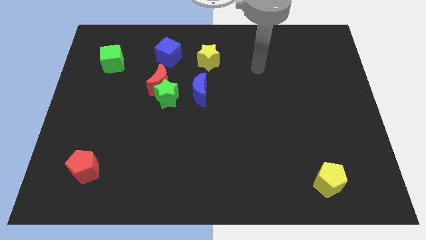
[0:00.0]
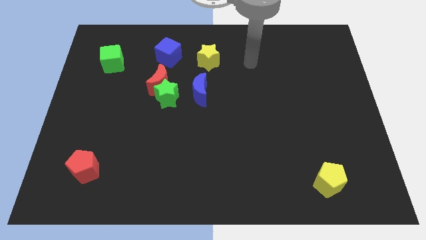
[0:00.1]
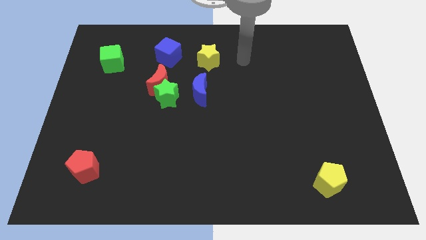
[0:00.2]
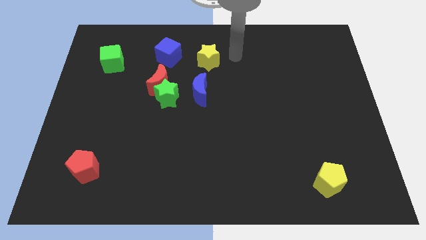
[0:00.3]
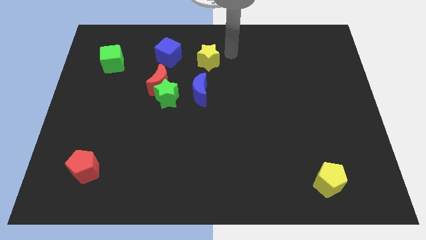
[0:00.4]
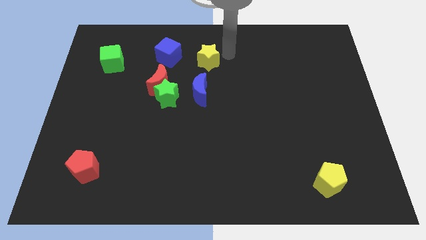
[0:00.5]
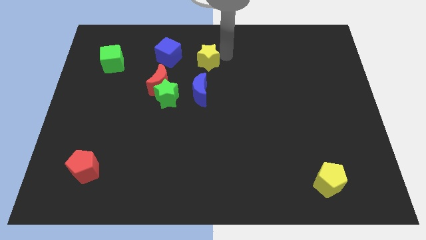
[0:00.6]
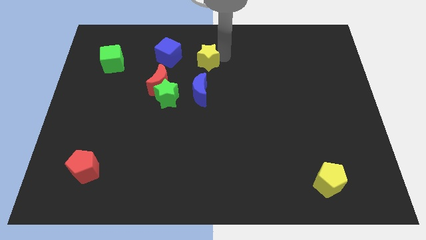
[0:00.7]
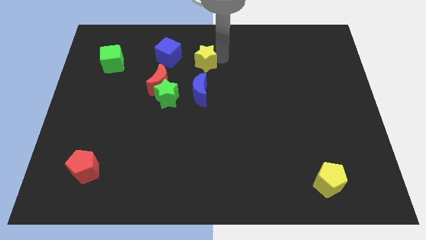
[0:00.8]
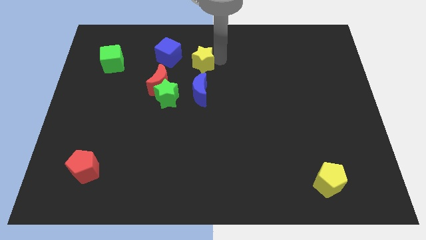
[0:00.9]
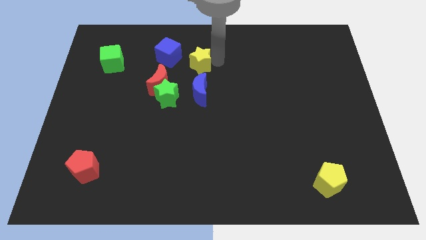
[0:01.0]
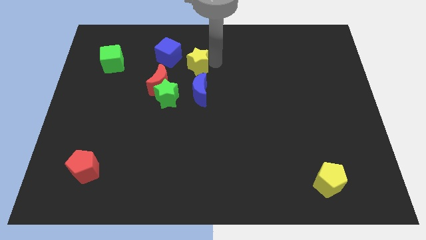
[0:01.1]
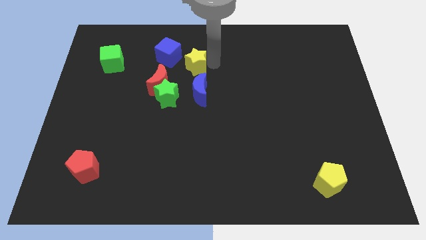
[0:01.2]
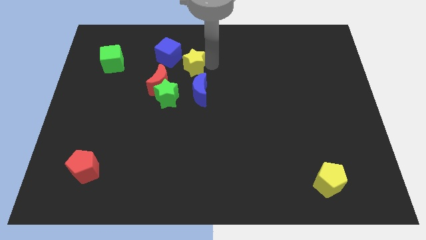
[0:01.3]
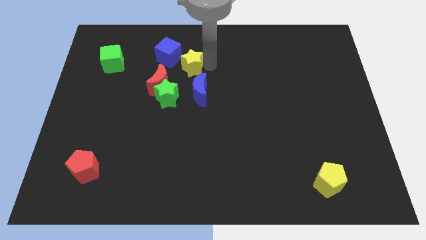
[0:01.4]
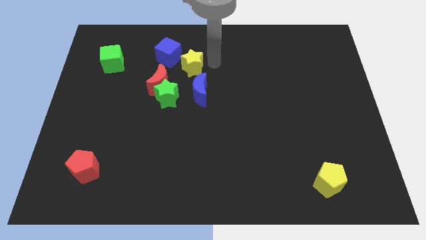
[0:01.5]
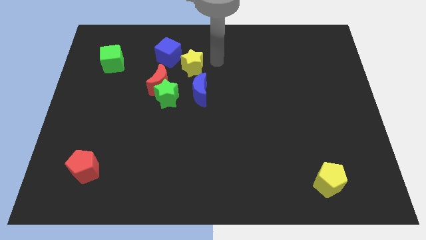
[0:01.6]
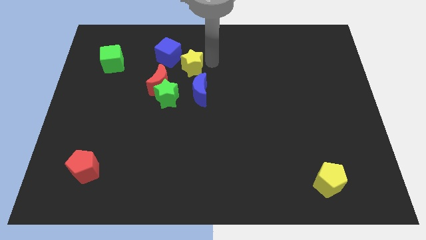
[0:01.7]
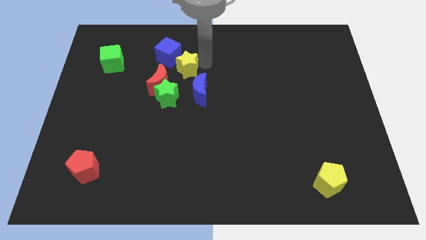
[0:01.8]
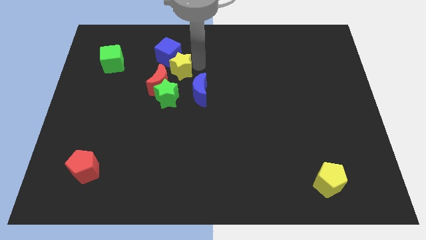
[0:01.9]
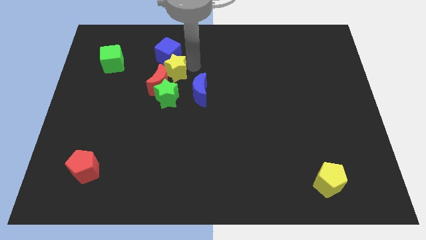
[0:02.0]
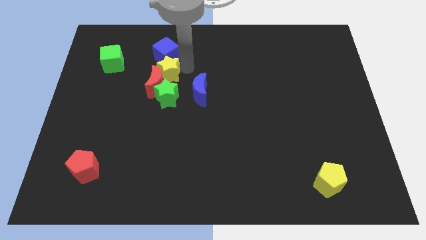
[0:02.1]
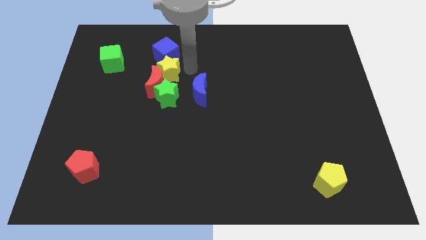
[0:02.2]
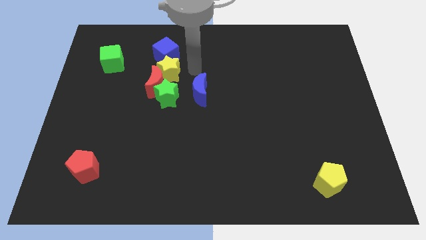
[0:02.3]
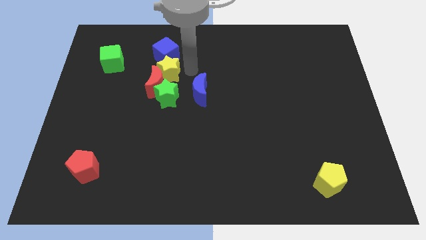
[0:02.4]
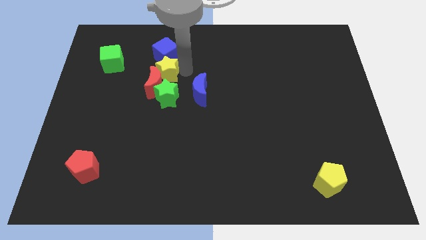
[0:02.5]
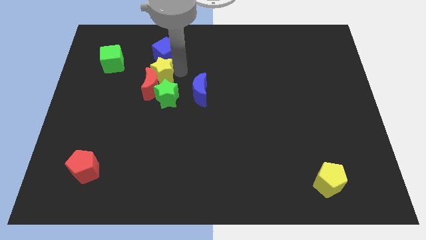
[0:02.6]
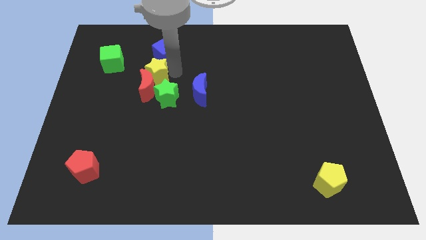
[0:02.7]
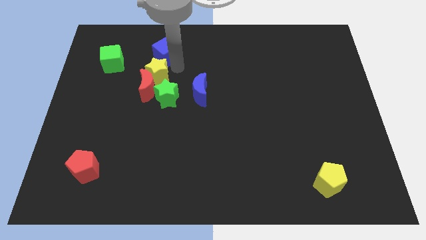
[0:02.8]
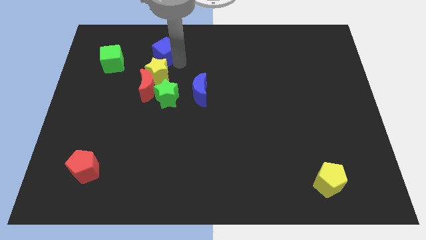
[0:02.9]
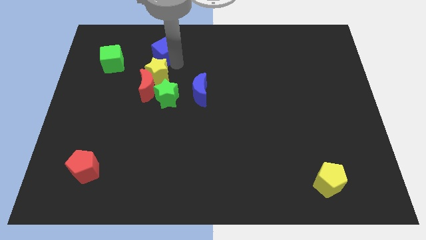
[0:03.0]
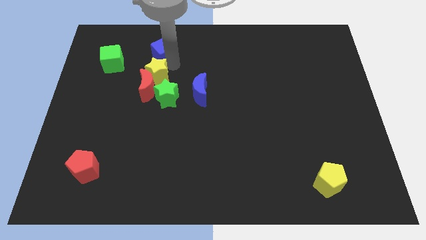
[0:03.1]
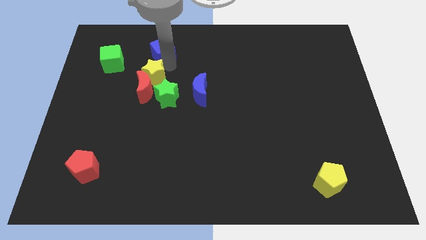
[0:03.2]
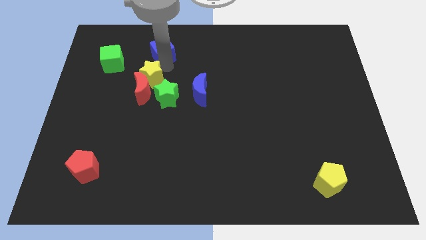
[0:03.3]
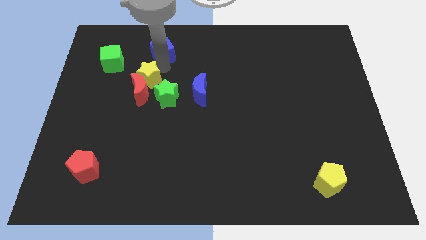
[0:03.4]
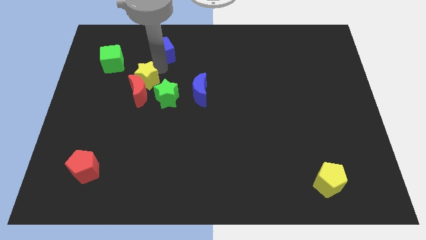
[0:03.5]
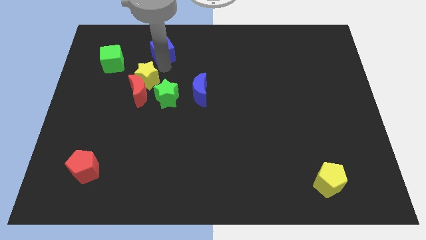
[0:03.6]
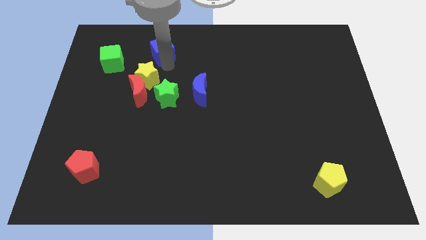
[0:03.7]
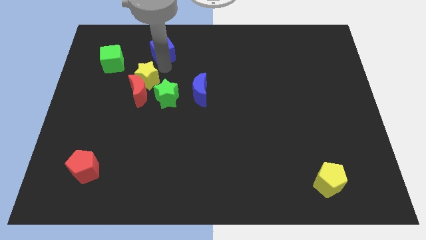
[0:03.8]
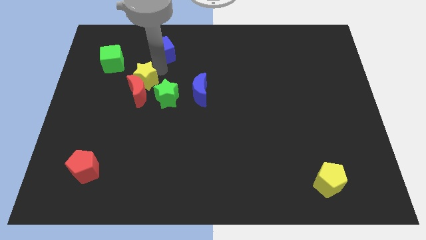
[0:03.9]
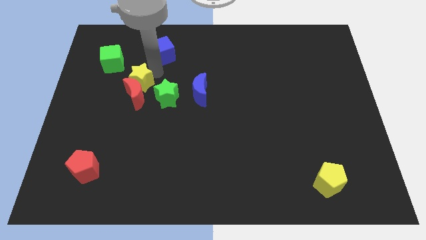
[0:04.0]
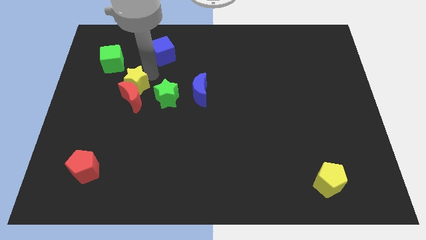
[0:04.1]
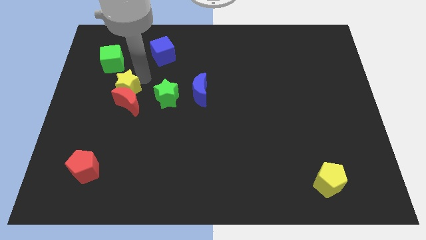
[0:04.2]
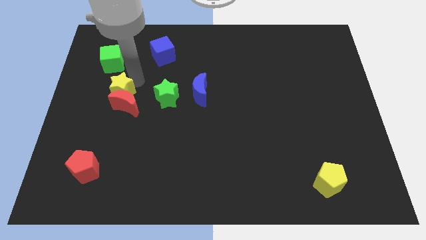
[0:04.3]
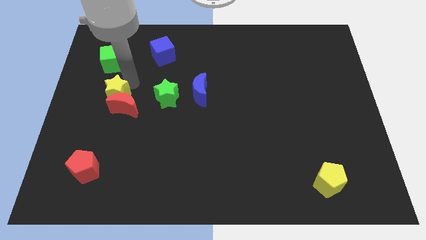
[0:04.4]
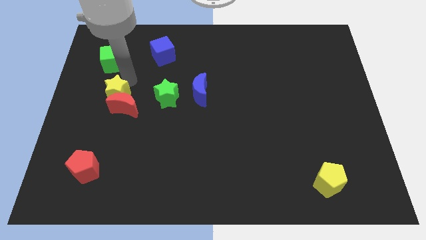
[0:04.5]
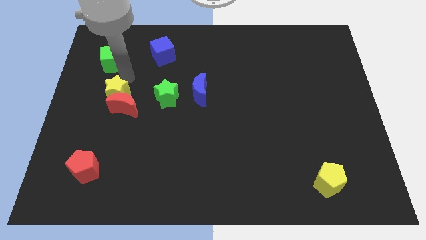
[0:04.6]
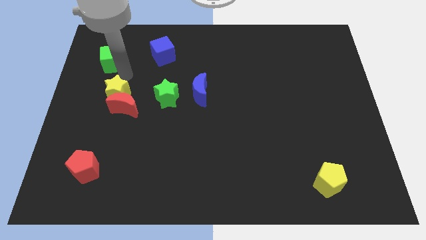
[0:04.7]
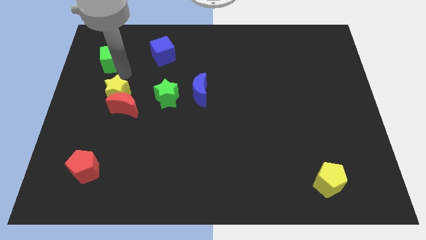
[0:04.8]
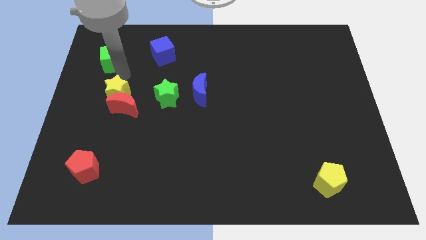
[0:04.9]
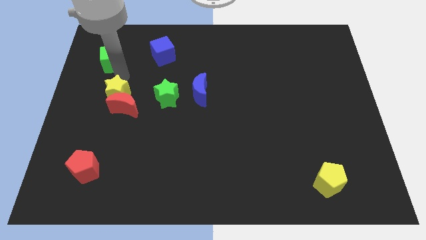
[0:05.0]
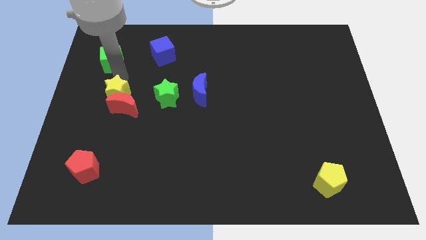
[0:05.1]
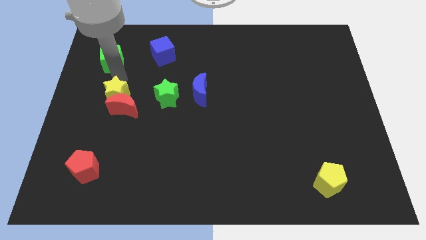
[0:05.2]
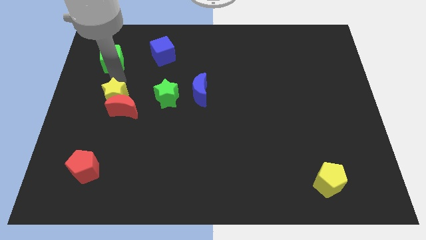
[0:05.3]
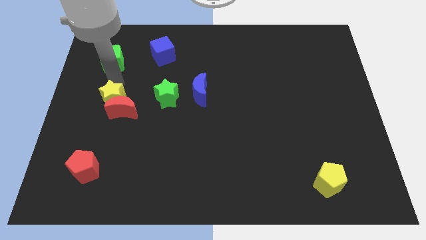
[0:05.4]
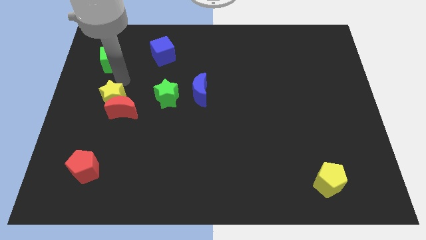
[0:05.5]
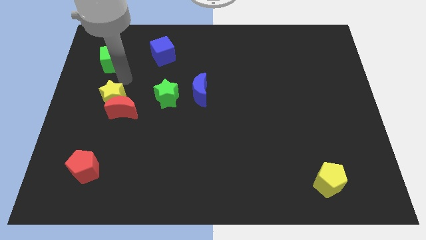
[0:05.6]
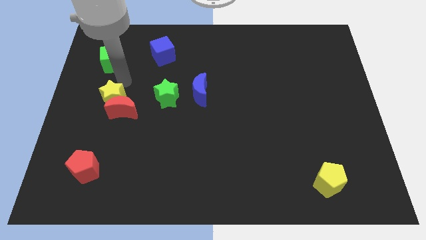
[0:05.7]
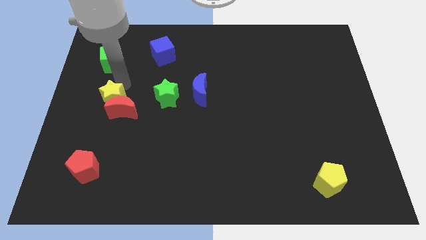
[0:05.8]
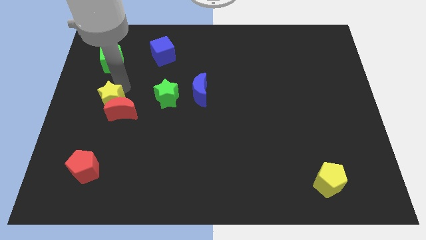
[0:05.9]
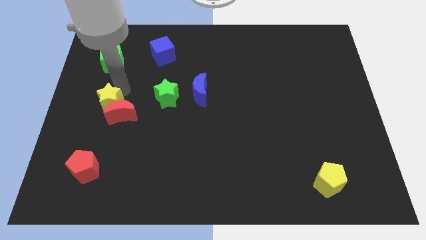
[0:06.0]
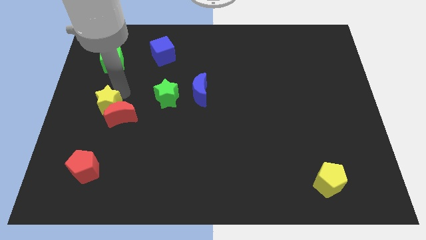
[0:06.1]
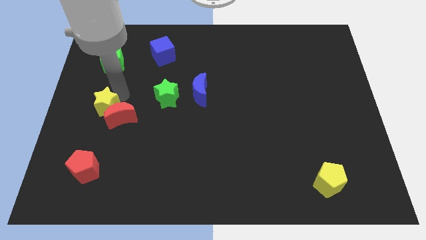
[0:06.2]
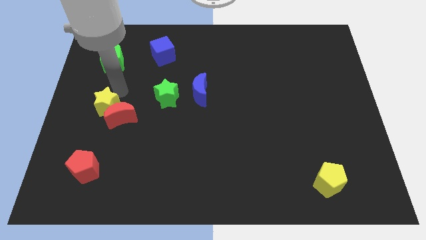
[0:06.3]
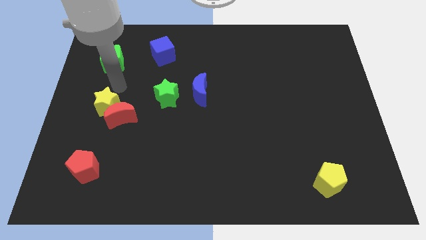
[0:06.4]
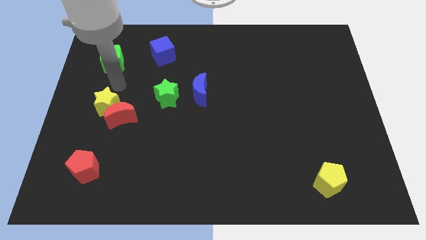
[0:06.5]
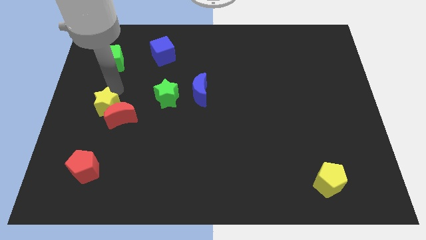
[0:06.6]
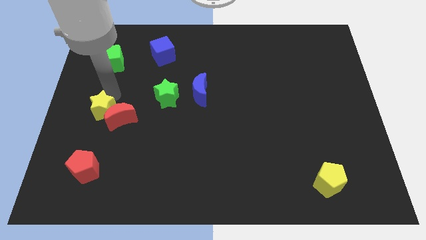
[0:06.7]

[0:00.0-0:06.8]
move the yellow star to the top side of the red pentagon
